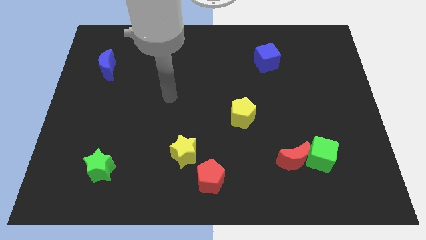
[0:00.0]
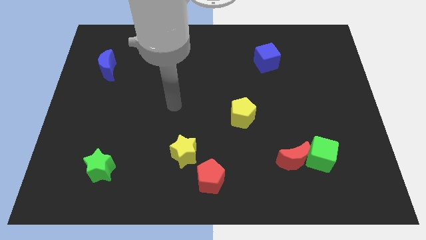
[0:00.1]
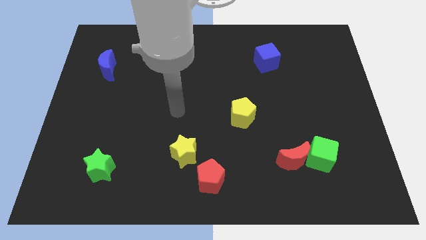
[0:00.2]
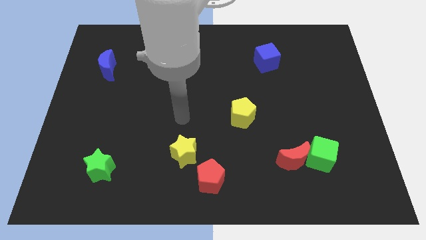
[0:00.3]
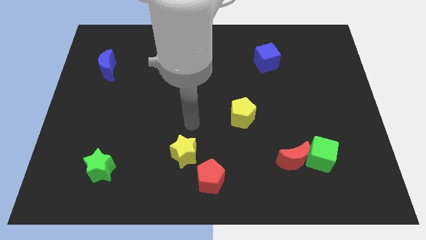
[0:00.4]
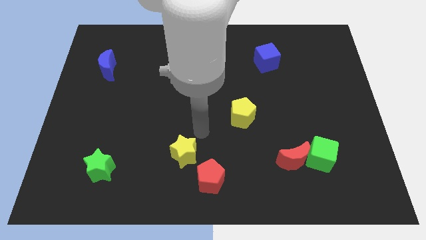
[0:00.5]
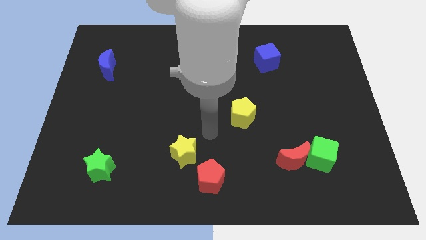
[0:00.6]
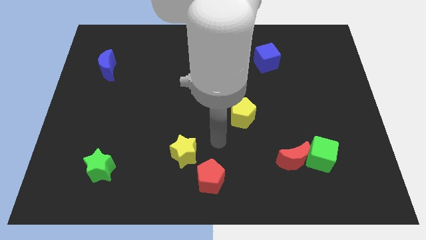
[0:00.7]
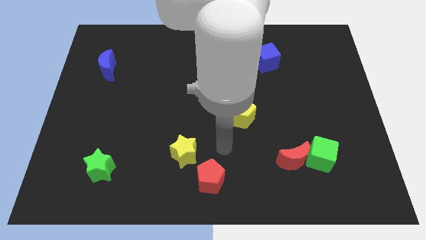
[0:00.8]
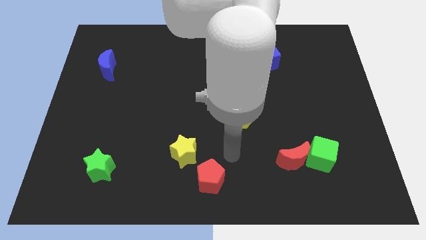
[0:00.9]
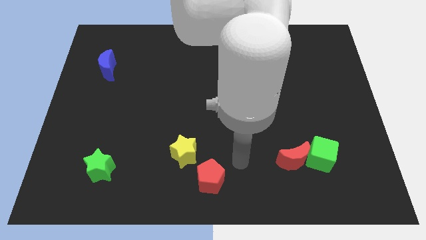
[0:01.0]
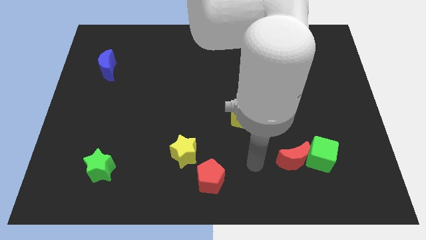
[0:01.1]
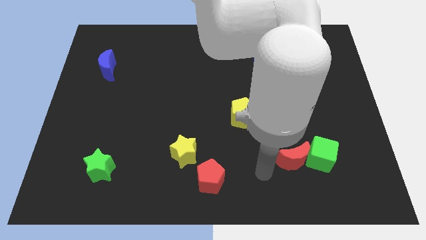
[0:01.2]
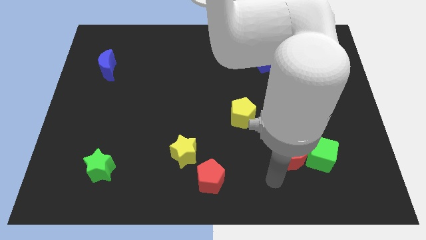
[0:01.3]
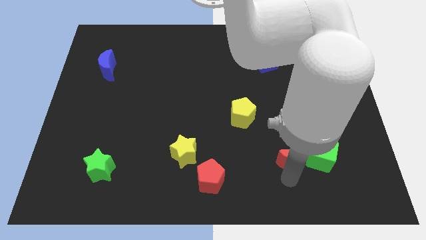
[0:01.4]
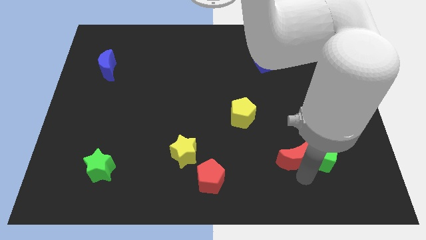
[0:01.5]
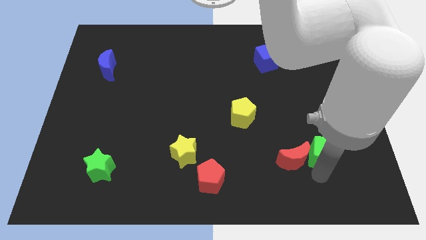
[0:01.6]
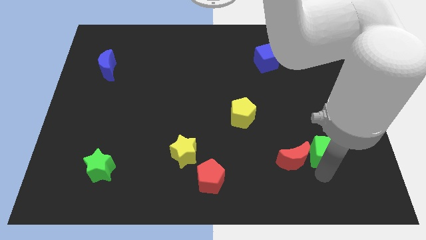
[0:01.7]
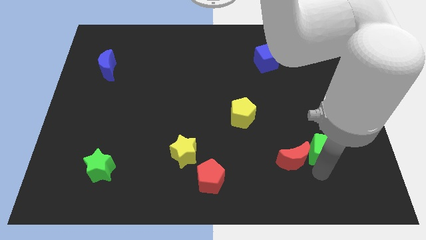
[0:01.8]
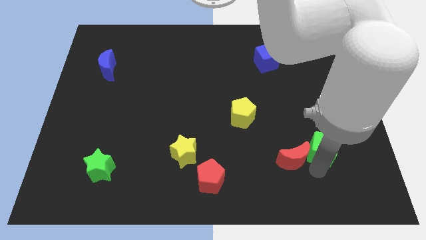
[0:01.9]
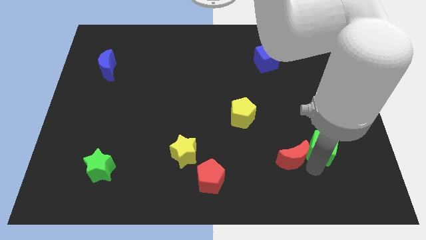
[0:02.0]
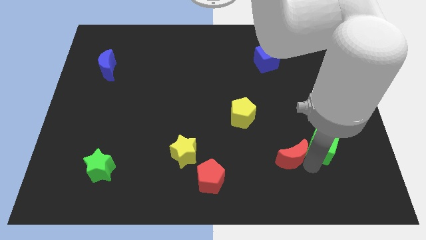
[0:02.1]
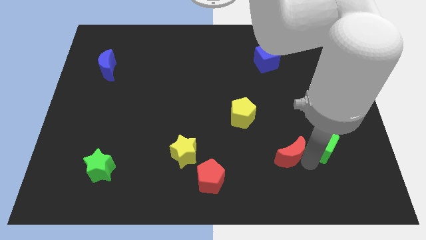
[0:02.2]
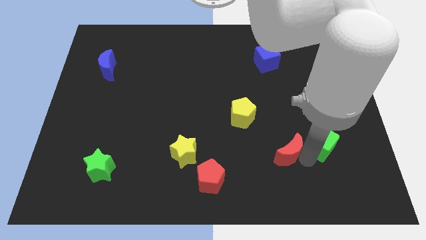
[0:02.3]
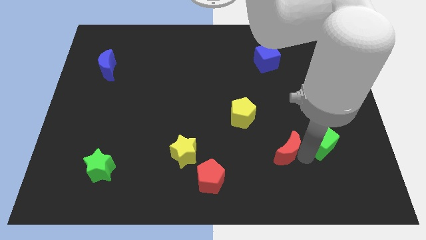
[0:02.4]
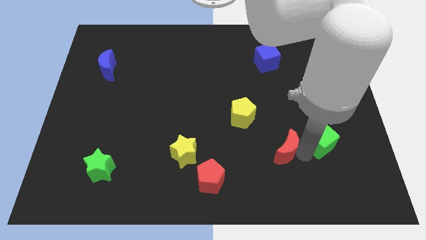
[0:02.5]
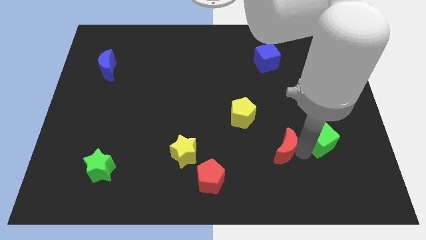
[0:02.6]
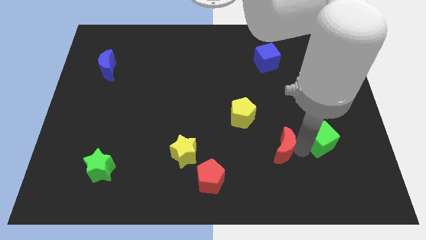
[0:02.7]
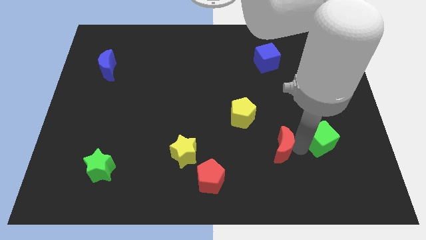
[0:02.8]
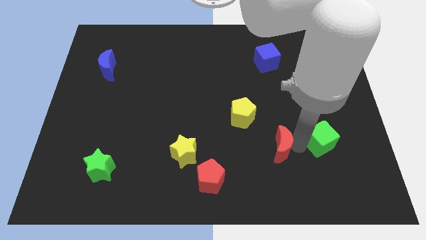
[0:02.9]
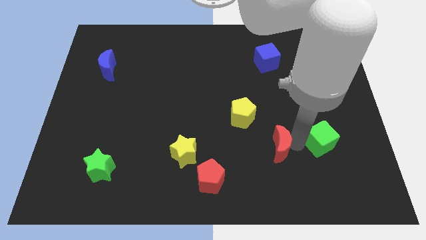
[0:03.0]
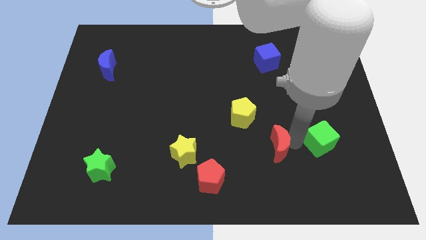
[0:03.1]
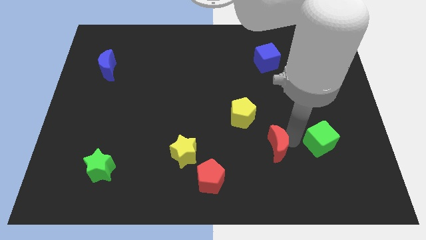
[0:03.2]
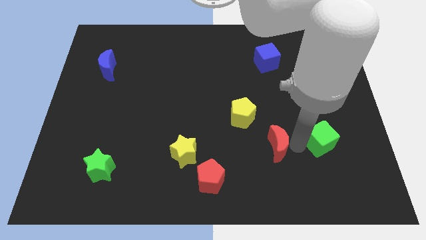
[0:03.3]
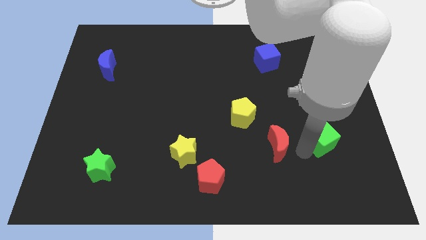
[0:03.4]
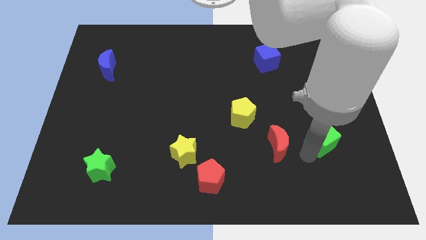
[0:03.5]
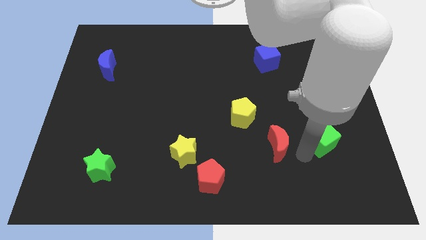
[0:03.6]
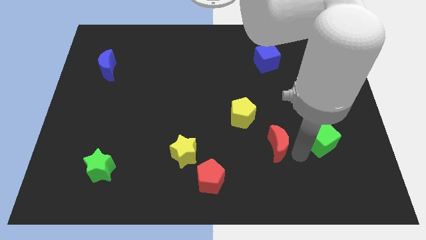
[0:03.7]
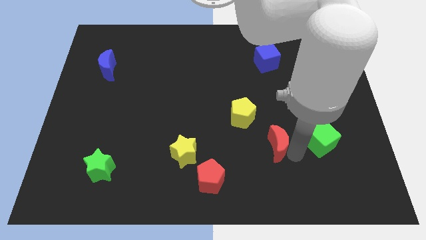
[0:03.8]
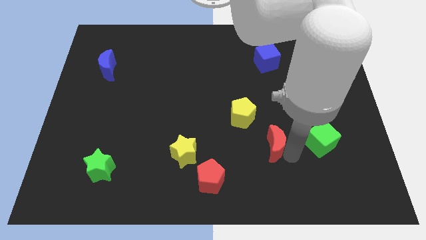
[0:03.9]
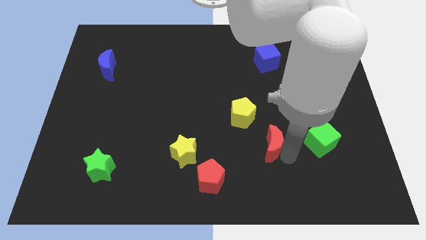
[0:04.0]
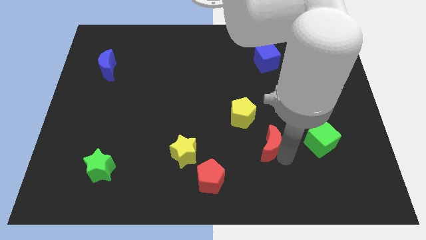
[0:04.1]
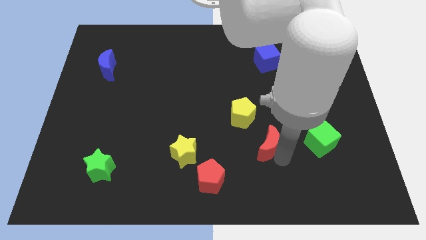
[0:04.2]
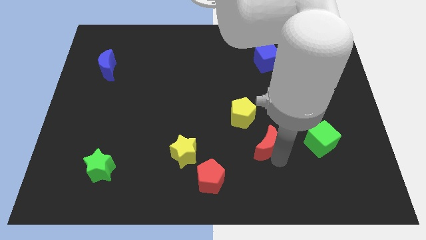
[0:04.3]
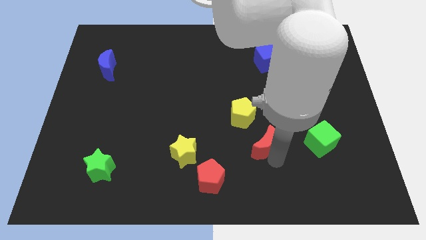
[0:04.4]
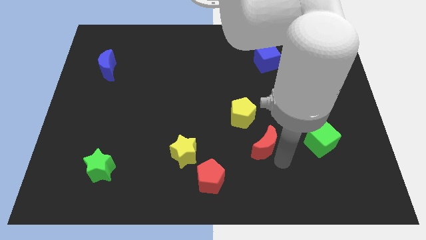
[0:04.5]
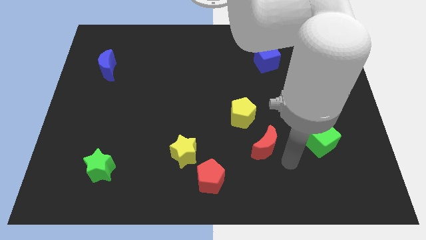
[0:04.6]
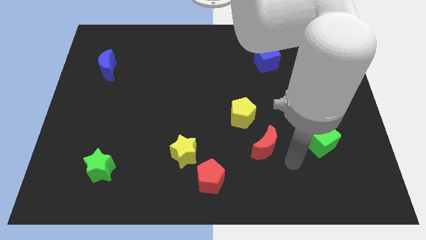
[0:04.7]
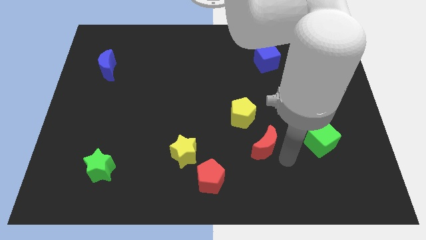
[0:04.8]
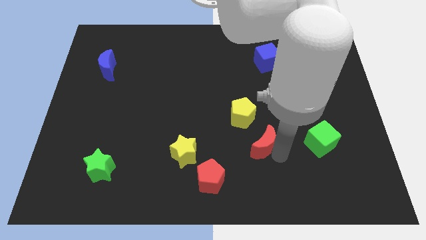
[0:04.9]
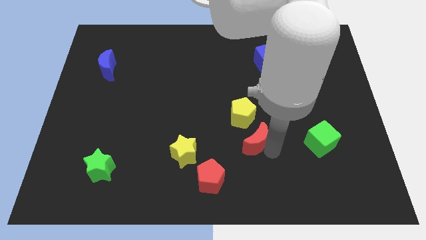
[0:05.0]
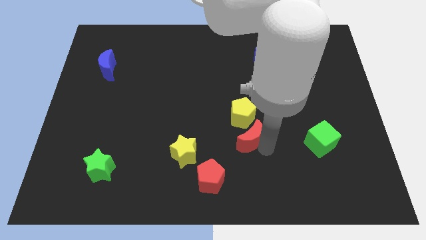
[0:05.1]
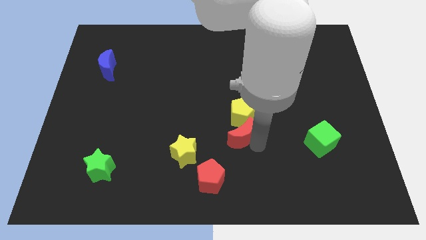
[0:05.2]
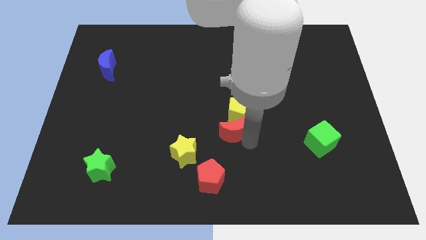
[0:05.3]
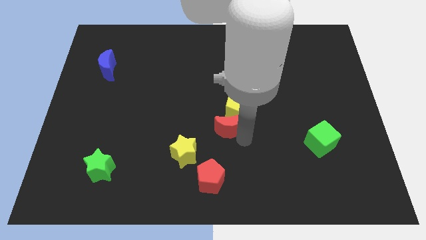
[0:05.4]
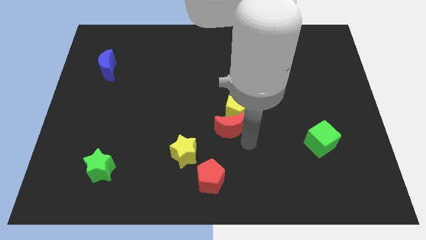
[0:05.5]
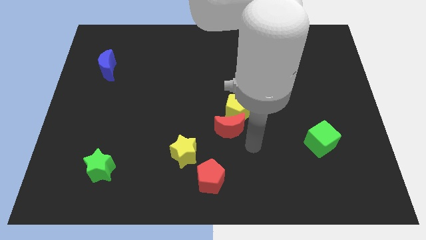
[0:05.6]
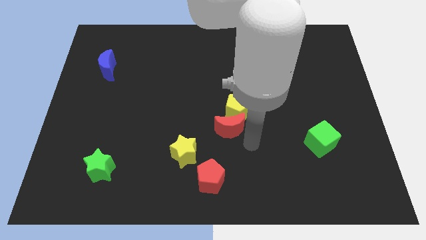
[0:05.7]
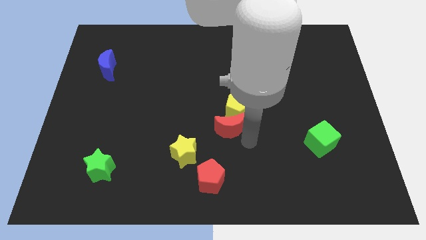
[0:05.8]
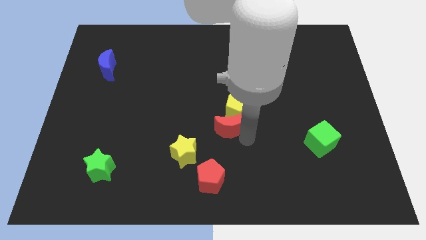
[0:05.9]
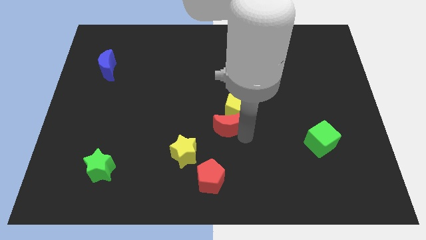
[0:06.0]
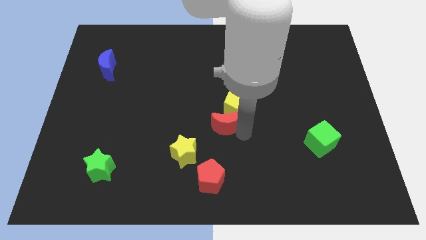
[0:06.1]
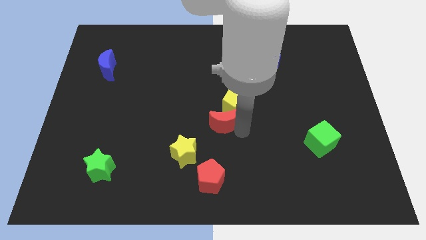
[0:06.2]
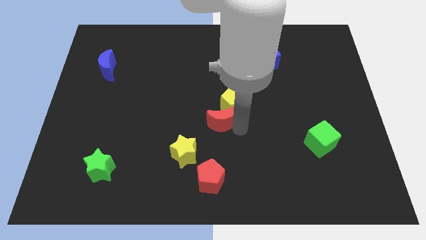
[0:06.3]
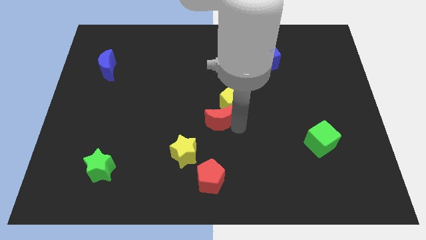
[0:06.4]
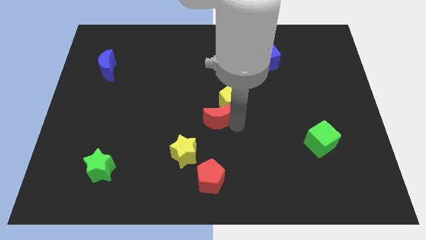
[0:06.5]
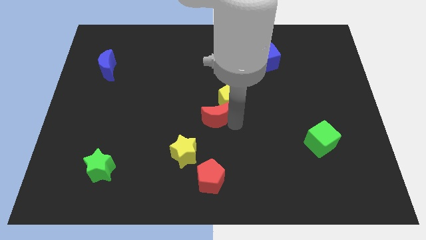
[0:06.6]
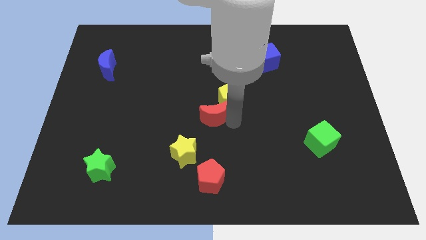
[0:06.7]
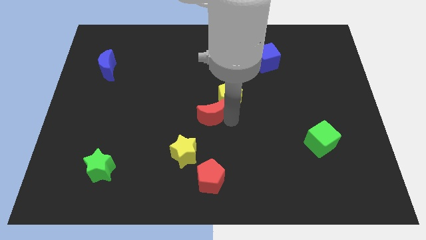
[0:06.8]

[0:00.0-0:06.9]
push the red moon upwards and to the left

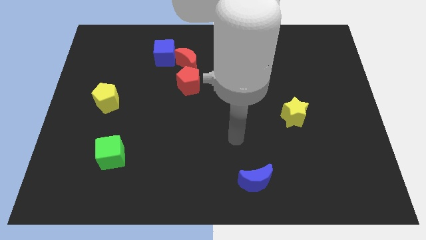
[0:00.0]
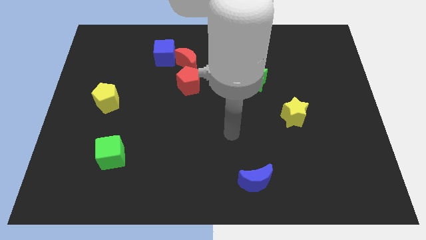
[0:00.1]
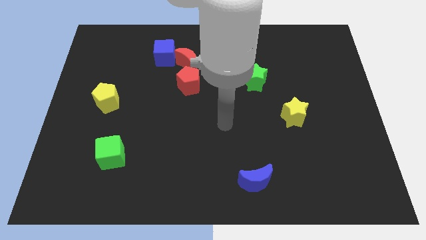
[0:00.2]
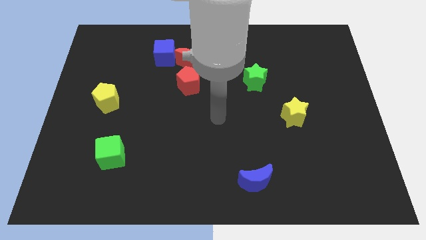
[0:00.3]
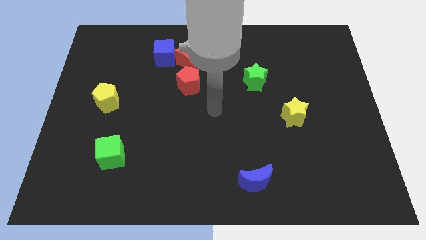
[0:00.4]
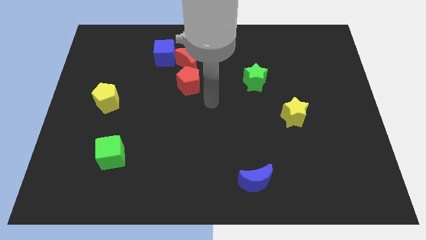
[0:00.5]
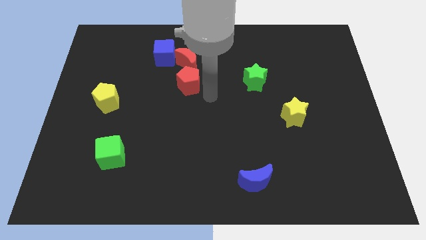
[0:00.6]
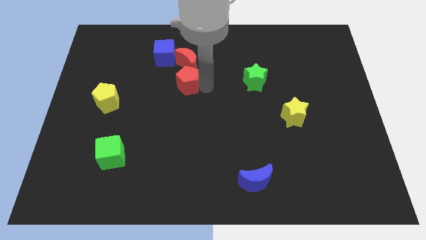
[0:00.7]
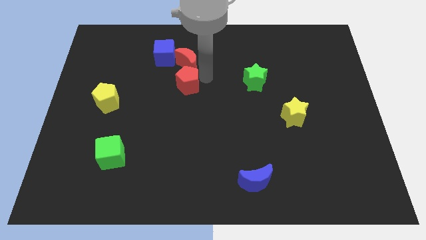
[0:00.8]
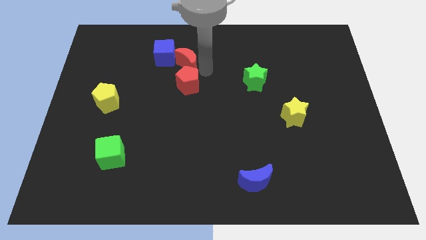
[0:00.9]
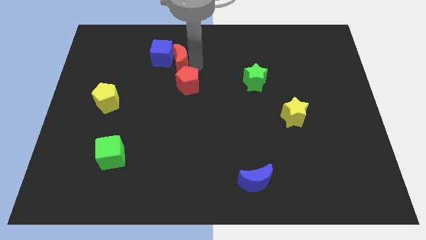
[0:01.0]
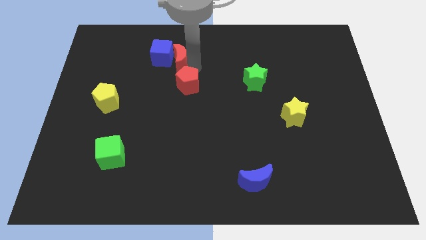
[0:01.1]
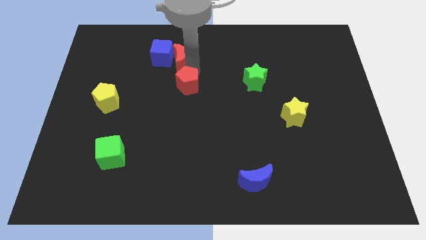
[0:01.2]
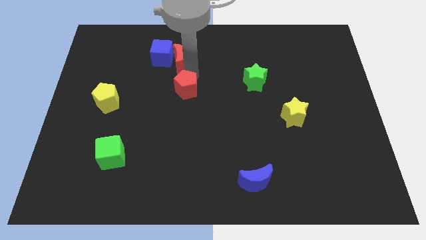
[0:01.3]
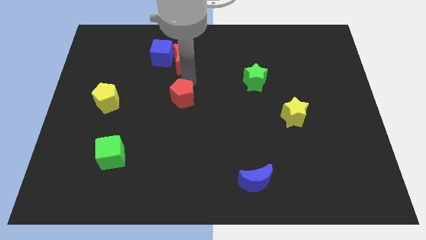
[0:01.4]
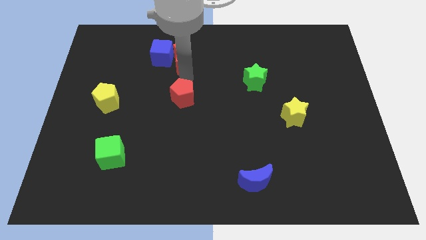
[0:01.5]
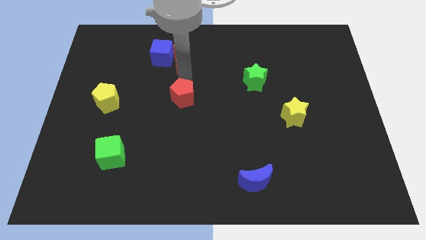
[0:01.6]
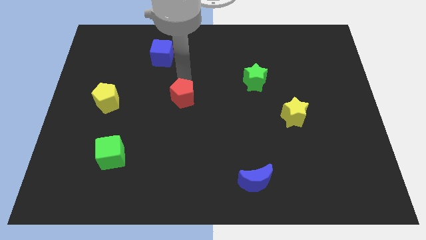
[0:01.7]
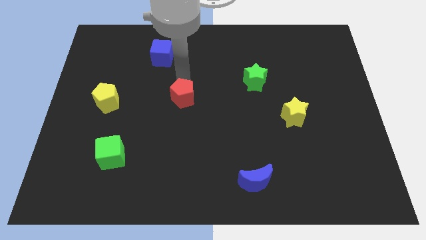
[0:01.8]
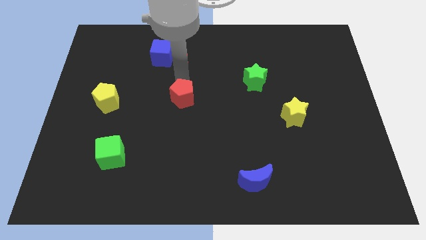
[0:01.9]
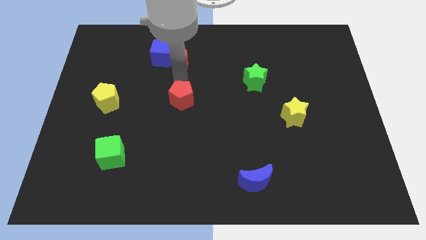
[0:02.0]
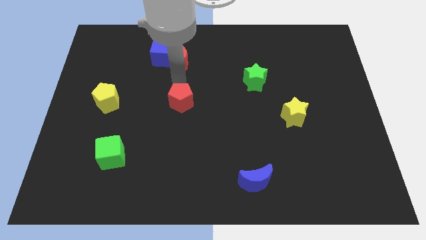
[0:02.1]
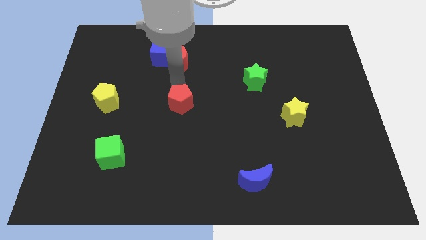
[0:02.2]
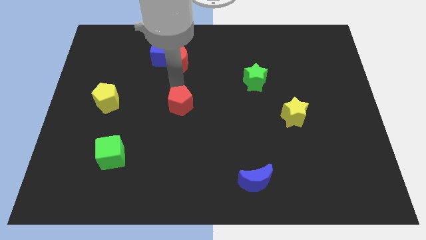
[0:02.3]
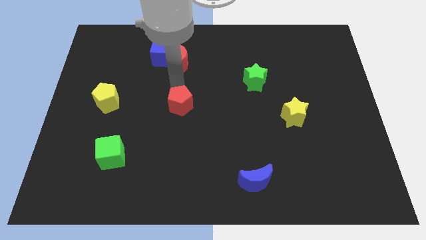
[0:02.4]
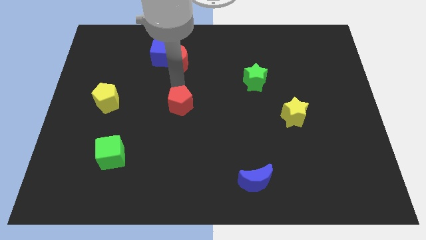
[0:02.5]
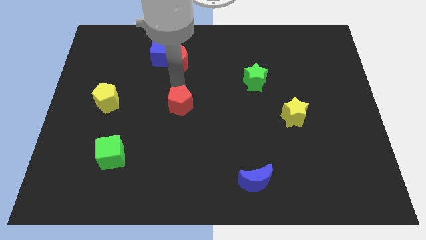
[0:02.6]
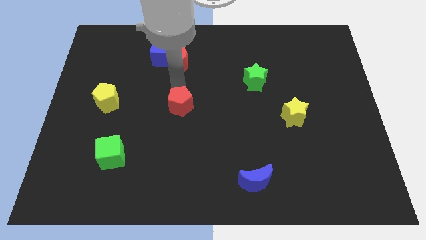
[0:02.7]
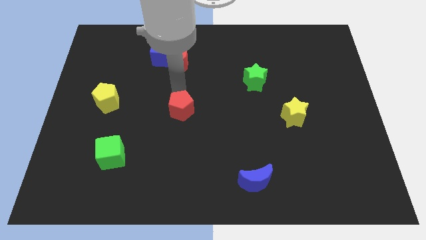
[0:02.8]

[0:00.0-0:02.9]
slightly push the red pentagon down
